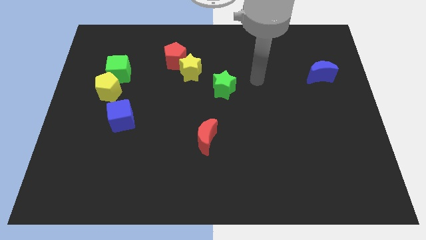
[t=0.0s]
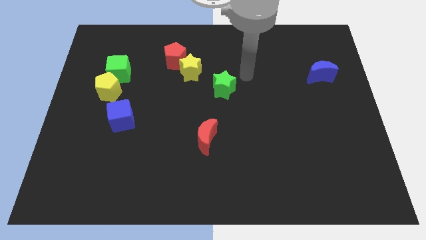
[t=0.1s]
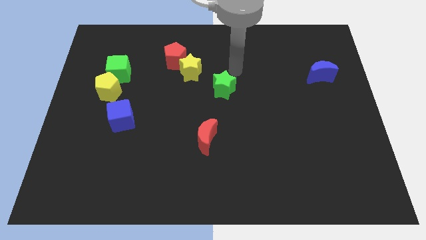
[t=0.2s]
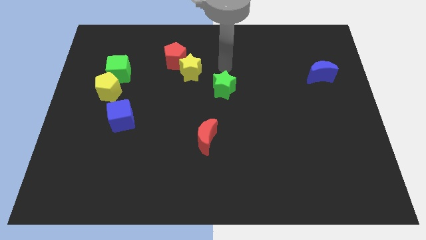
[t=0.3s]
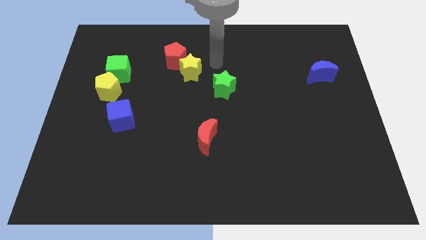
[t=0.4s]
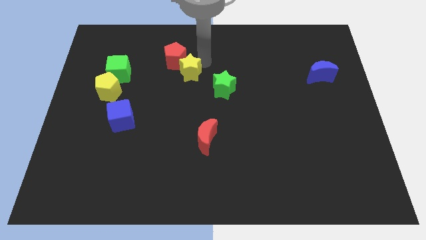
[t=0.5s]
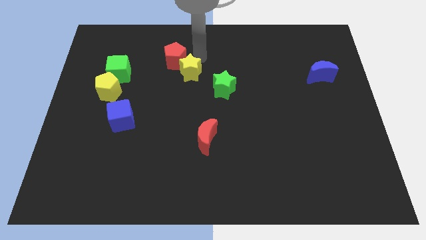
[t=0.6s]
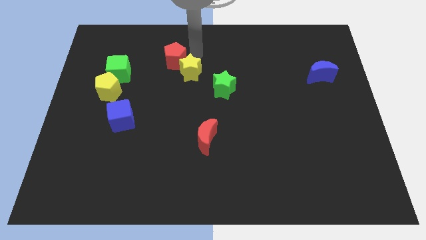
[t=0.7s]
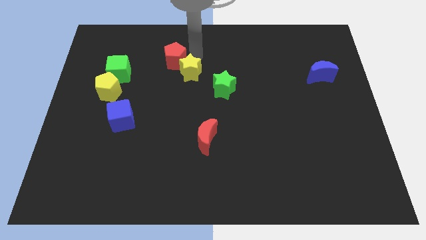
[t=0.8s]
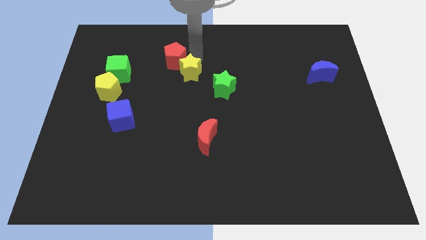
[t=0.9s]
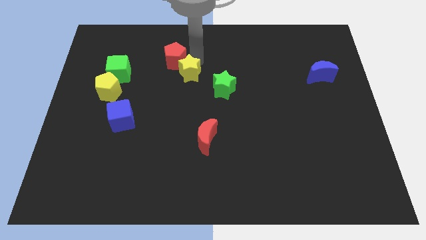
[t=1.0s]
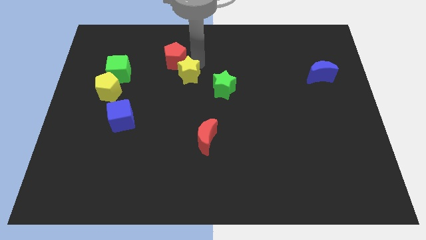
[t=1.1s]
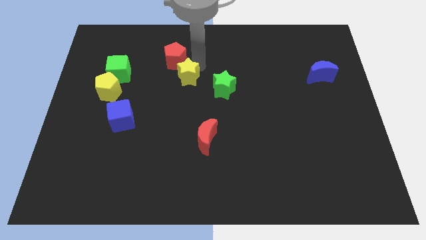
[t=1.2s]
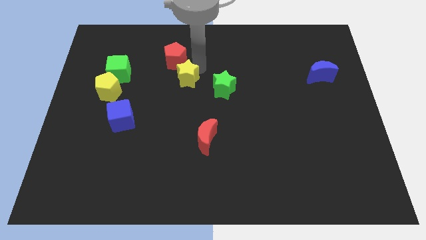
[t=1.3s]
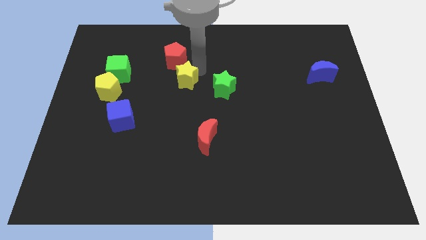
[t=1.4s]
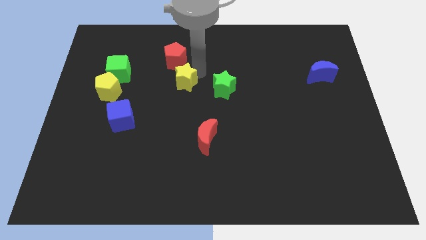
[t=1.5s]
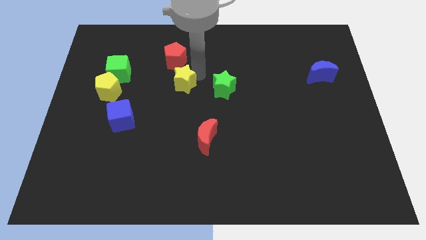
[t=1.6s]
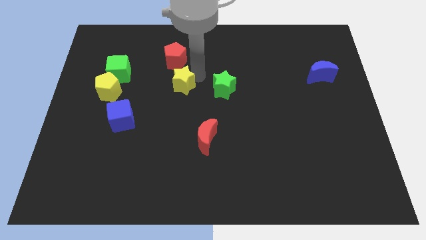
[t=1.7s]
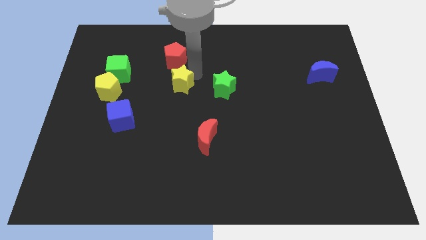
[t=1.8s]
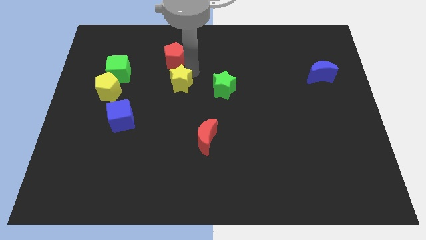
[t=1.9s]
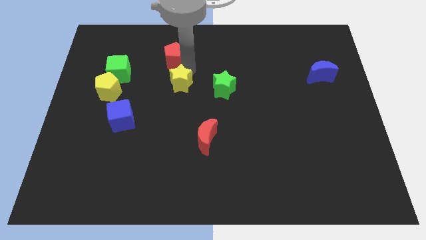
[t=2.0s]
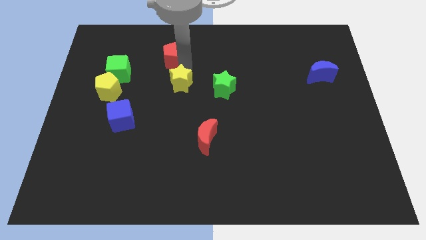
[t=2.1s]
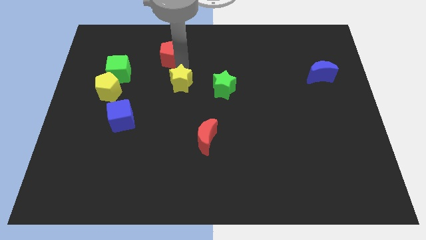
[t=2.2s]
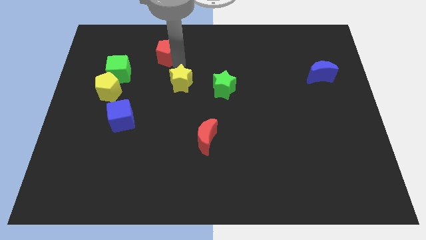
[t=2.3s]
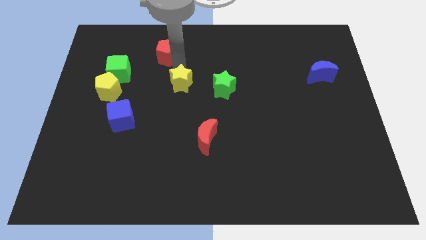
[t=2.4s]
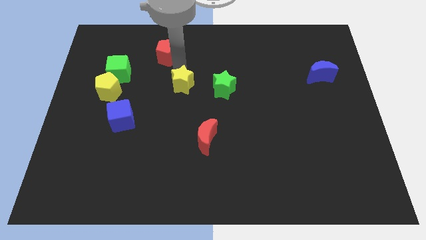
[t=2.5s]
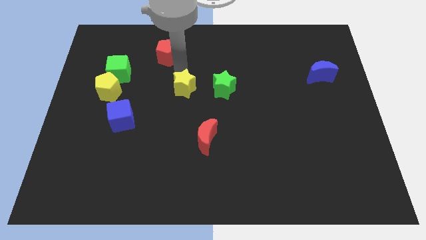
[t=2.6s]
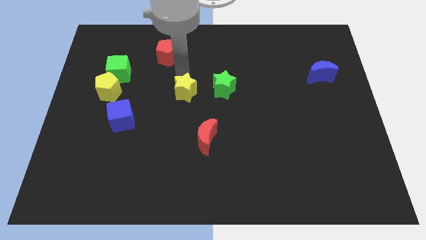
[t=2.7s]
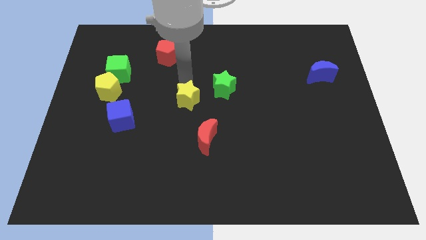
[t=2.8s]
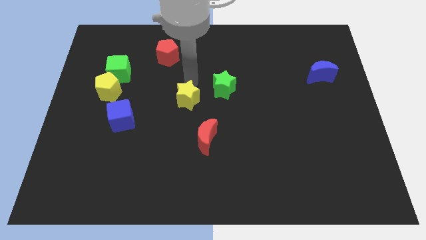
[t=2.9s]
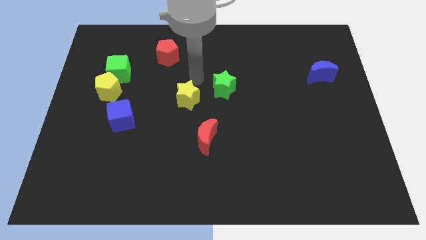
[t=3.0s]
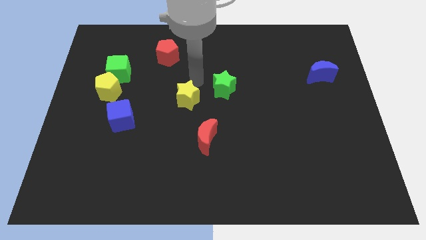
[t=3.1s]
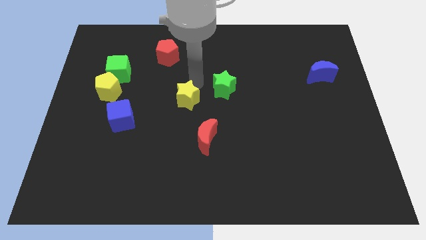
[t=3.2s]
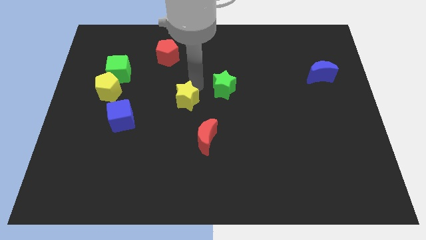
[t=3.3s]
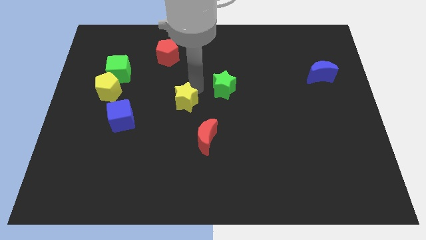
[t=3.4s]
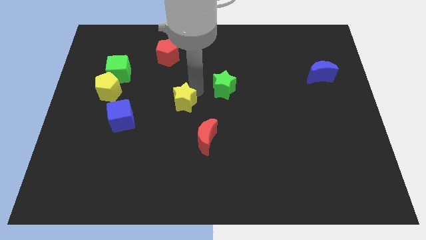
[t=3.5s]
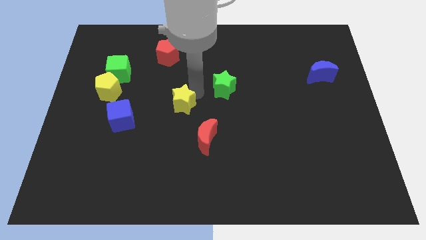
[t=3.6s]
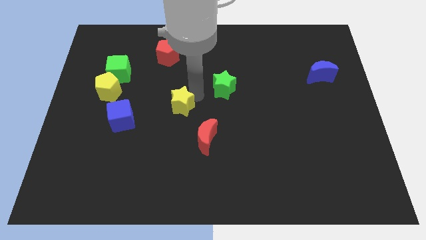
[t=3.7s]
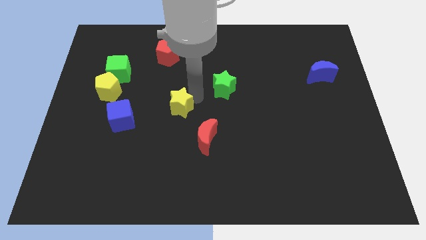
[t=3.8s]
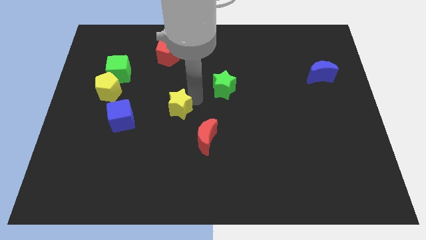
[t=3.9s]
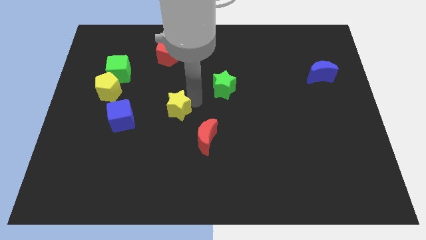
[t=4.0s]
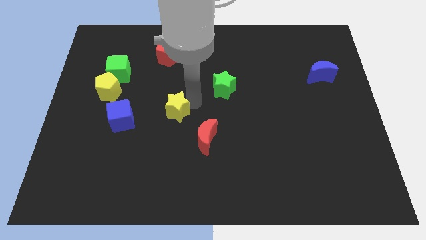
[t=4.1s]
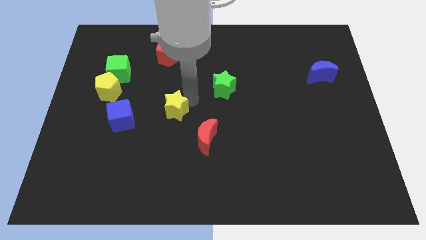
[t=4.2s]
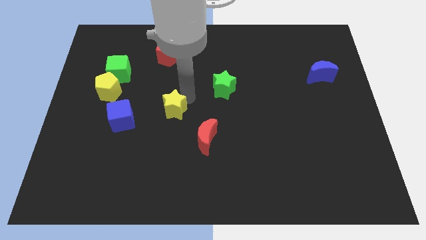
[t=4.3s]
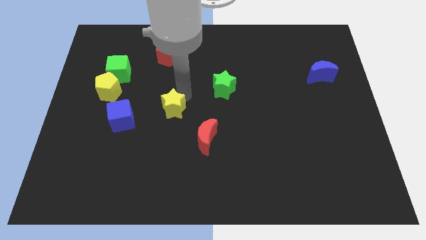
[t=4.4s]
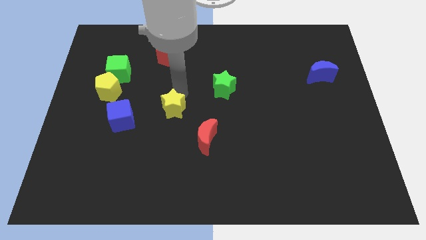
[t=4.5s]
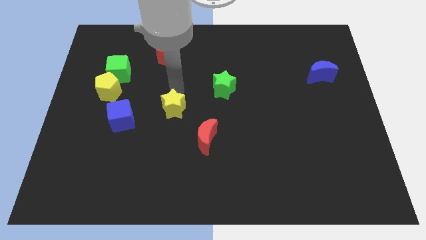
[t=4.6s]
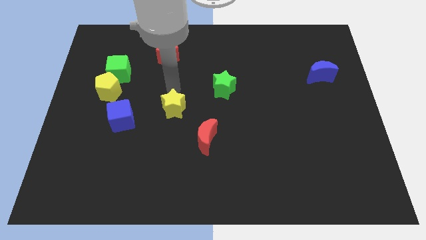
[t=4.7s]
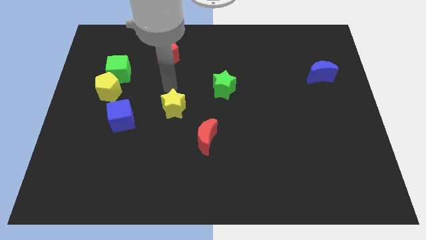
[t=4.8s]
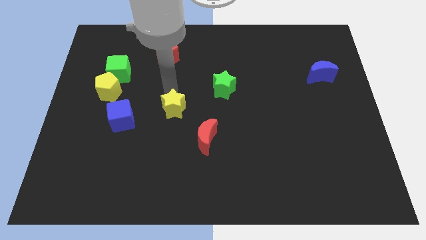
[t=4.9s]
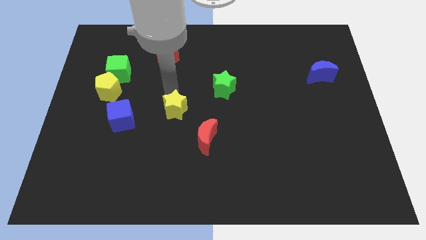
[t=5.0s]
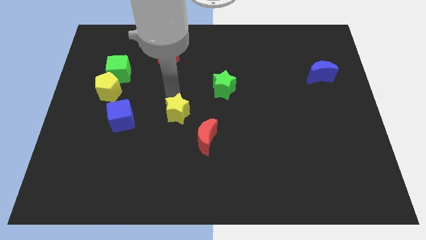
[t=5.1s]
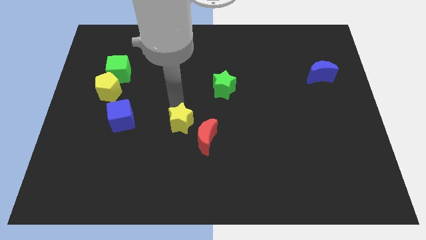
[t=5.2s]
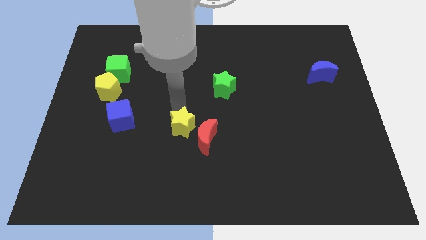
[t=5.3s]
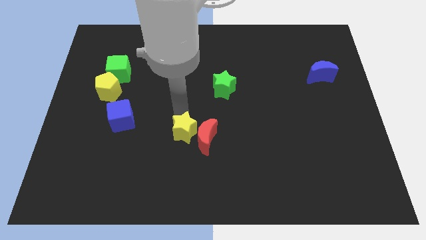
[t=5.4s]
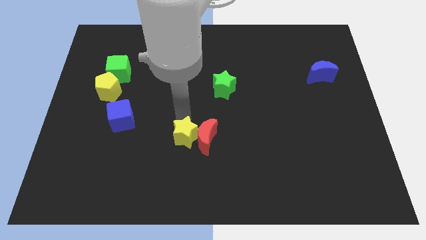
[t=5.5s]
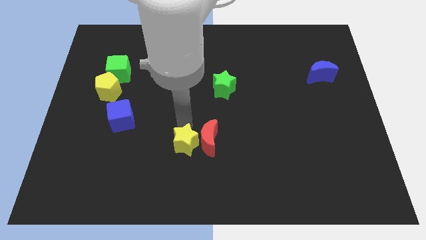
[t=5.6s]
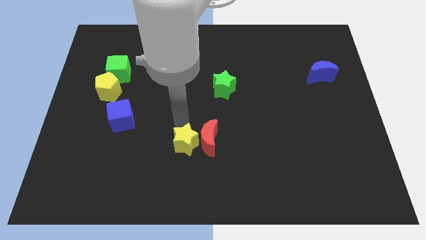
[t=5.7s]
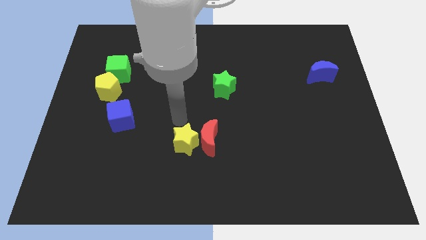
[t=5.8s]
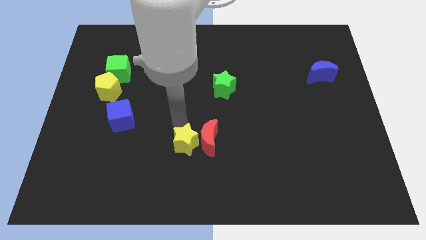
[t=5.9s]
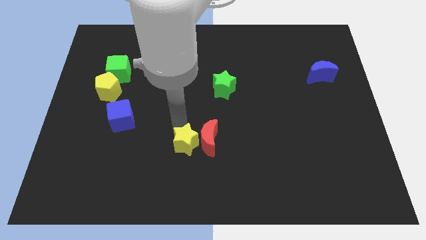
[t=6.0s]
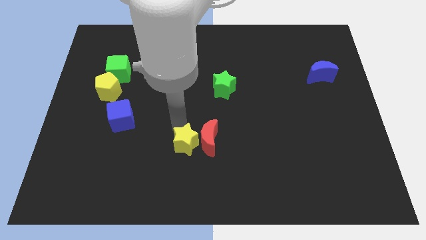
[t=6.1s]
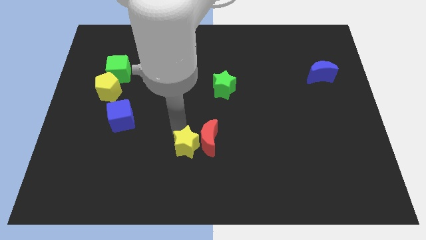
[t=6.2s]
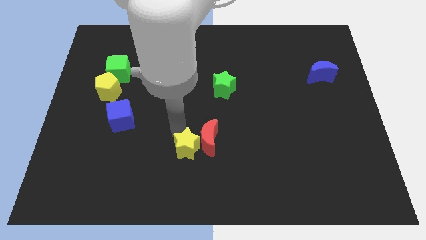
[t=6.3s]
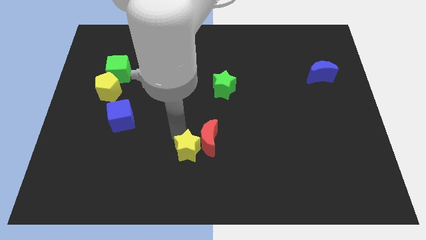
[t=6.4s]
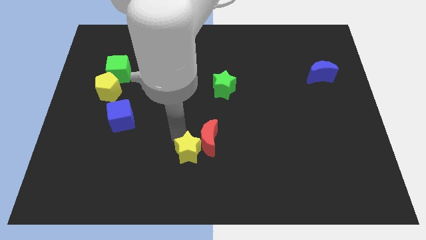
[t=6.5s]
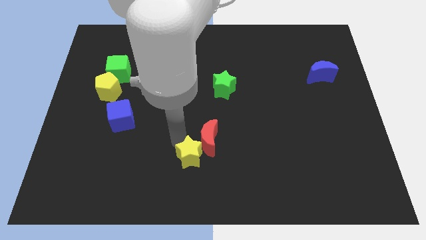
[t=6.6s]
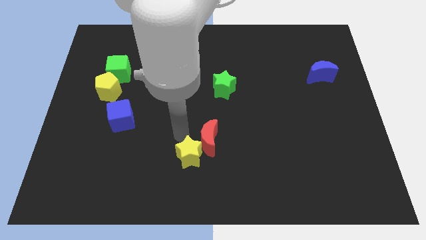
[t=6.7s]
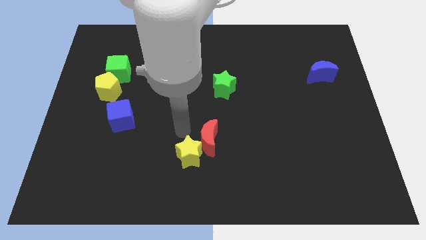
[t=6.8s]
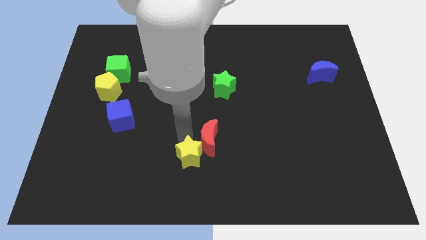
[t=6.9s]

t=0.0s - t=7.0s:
move the yellow star to the bottom
